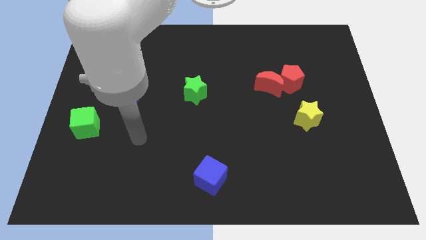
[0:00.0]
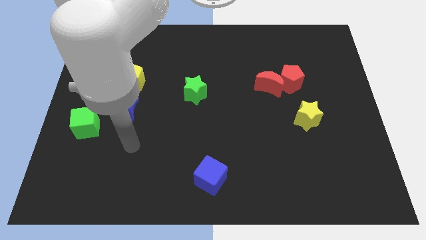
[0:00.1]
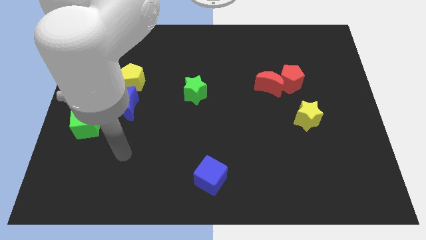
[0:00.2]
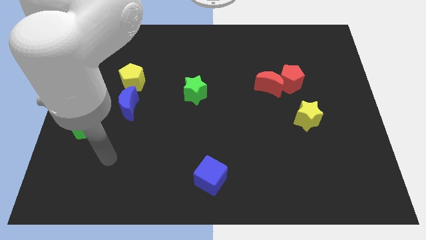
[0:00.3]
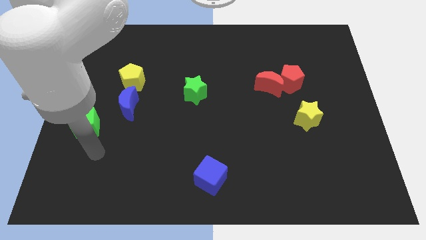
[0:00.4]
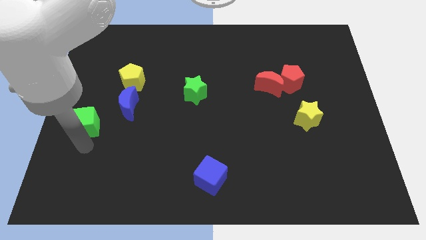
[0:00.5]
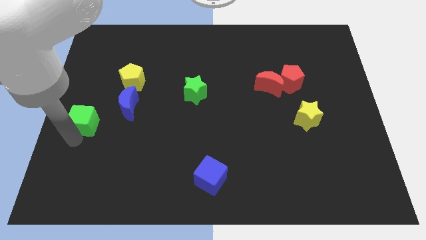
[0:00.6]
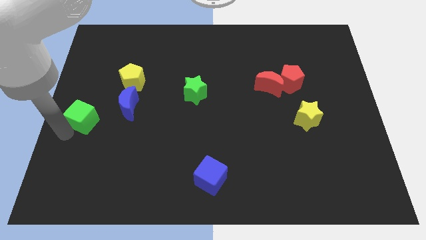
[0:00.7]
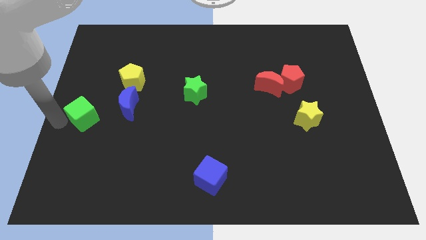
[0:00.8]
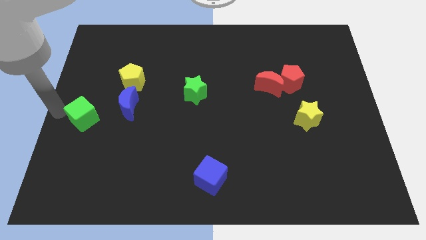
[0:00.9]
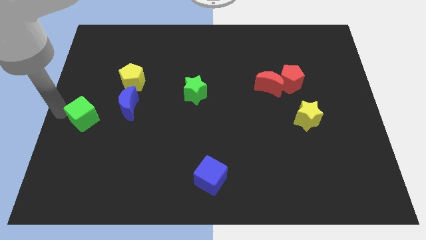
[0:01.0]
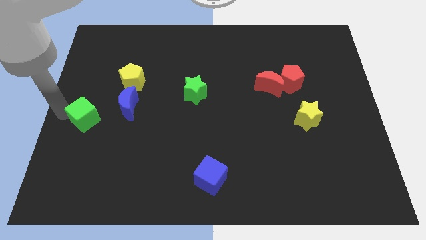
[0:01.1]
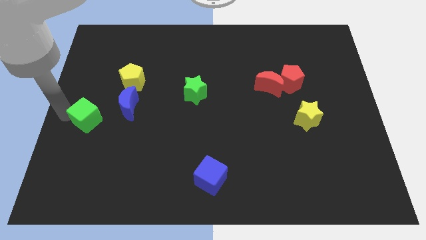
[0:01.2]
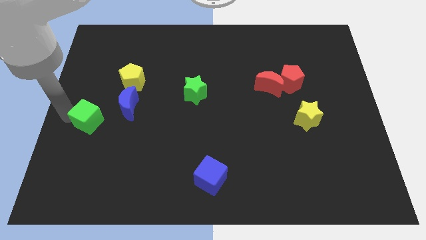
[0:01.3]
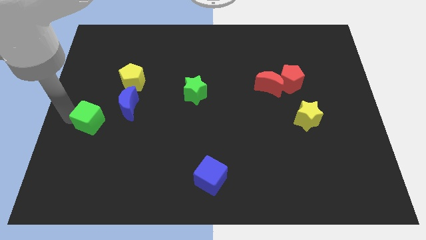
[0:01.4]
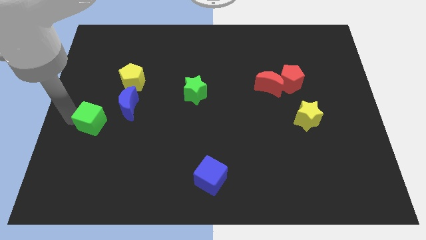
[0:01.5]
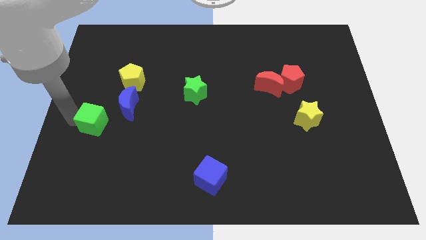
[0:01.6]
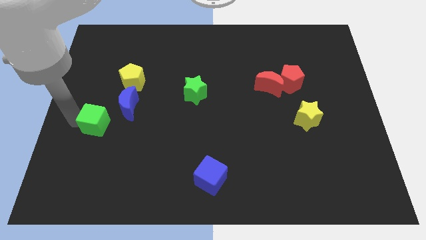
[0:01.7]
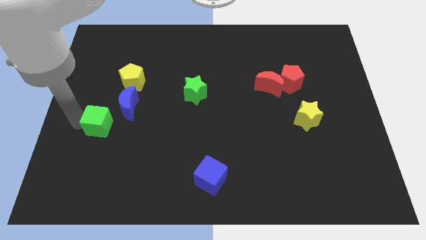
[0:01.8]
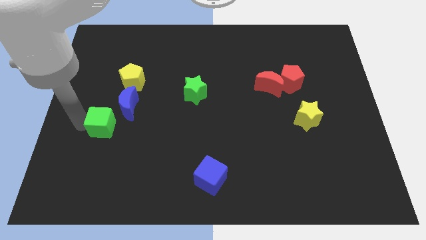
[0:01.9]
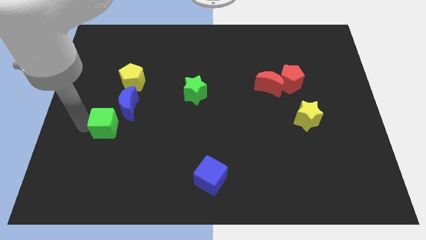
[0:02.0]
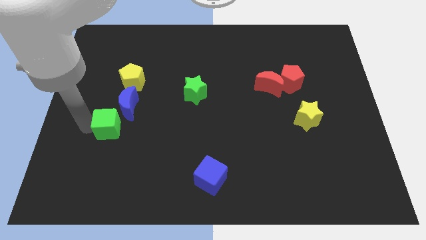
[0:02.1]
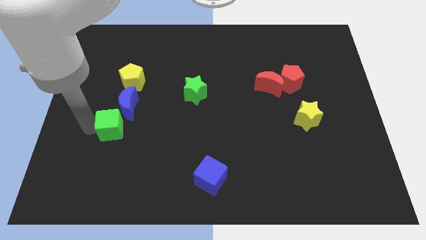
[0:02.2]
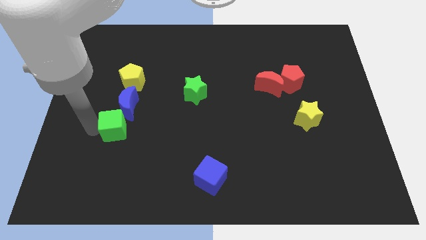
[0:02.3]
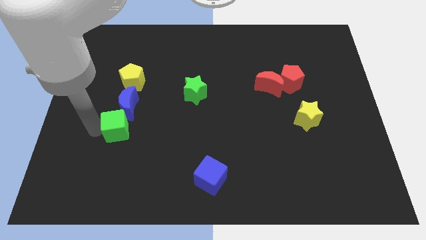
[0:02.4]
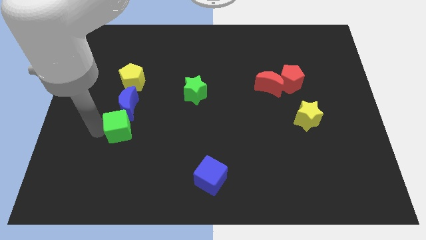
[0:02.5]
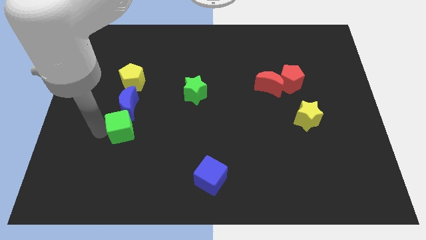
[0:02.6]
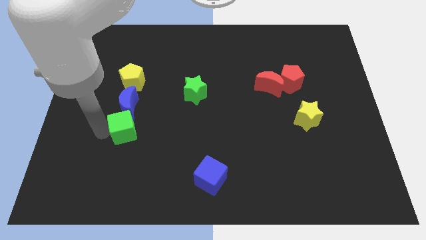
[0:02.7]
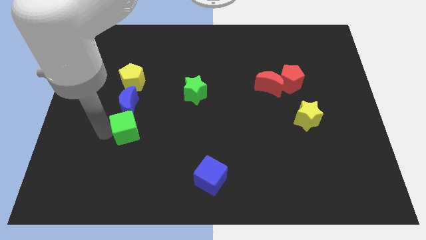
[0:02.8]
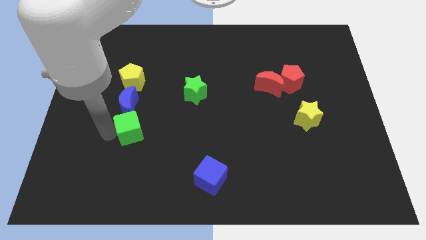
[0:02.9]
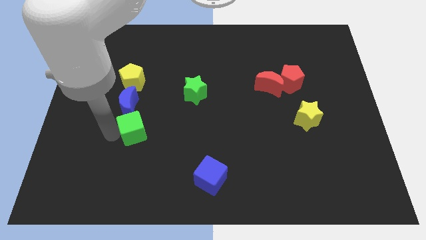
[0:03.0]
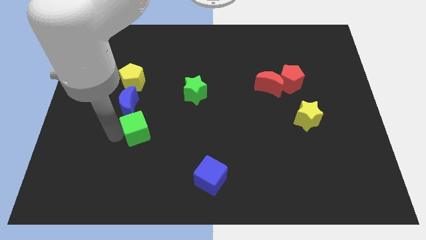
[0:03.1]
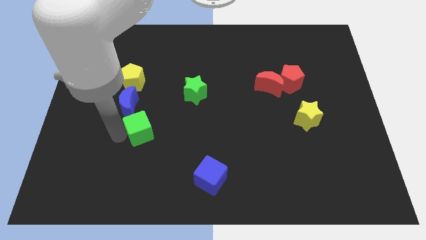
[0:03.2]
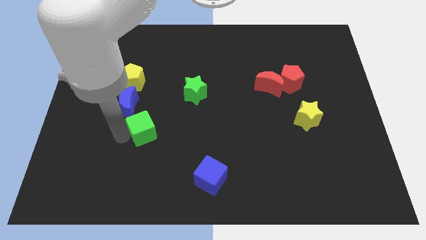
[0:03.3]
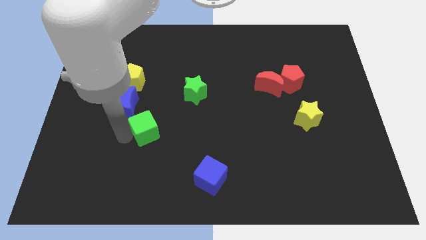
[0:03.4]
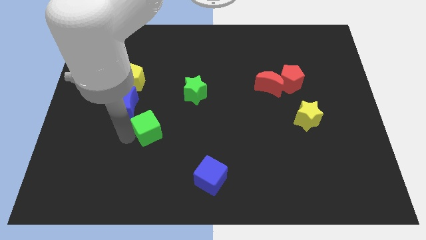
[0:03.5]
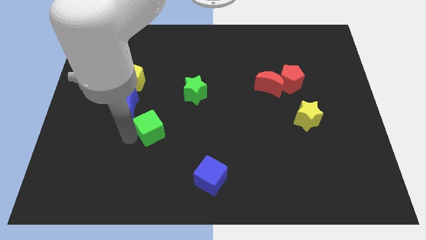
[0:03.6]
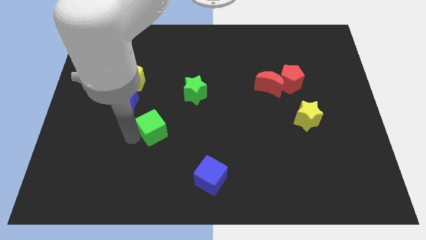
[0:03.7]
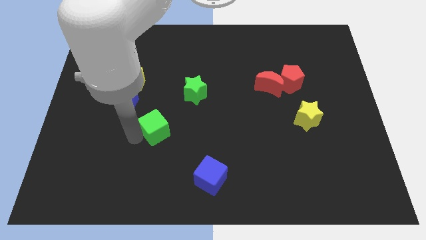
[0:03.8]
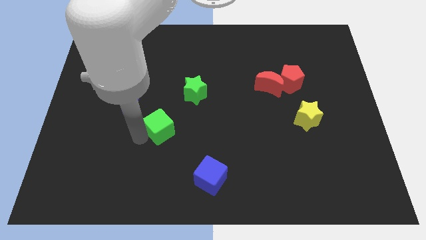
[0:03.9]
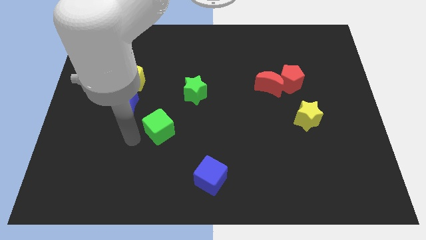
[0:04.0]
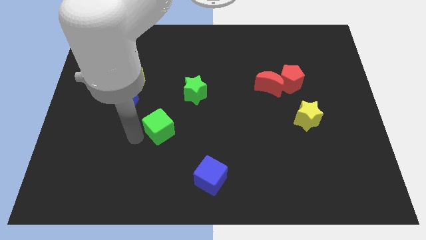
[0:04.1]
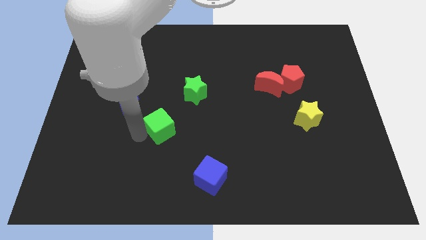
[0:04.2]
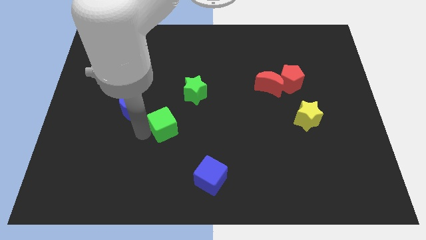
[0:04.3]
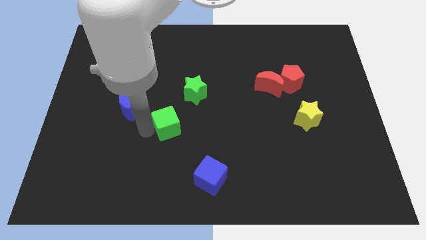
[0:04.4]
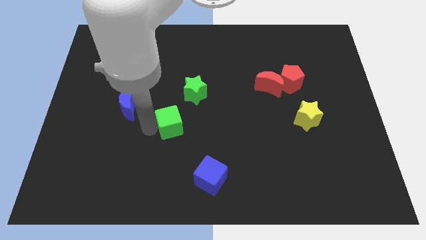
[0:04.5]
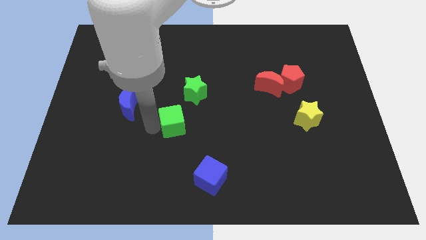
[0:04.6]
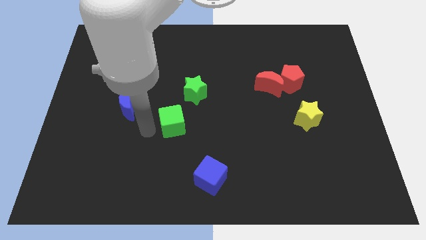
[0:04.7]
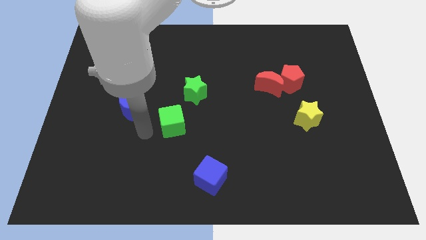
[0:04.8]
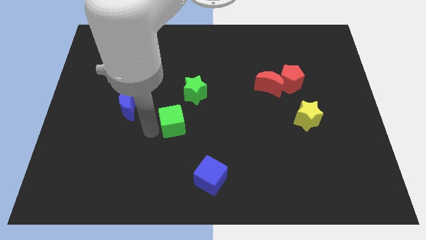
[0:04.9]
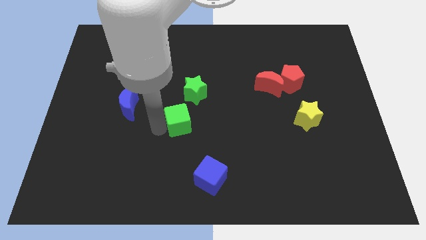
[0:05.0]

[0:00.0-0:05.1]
slide the green cube right

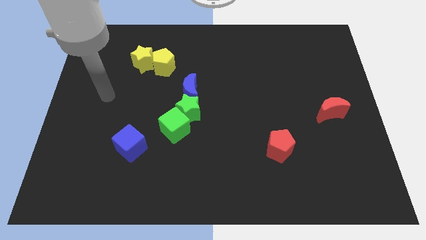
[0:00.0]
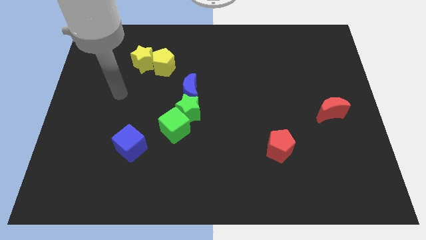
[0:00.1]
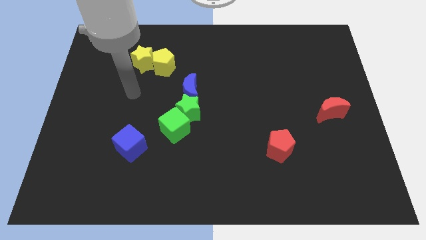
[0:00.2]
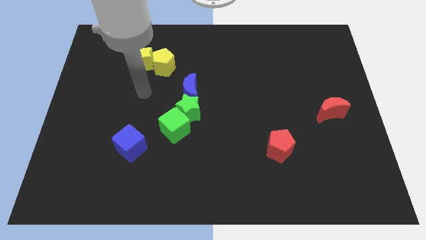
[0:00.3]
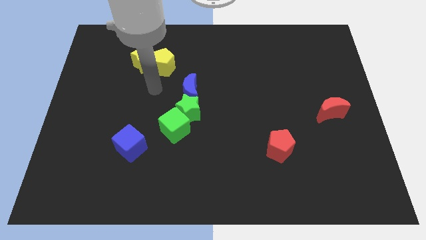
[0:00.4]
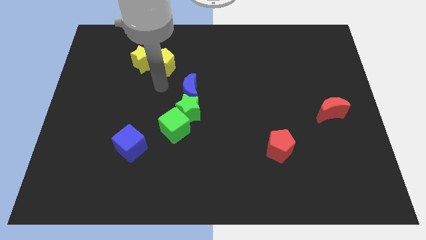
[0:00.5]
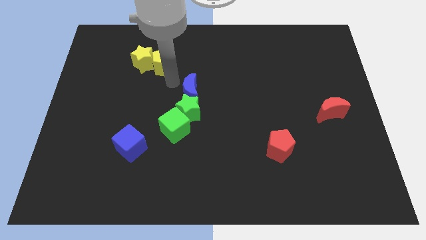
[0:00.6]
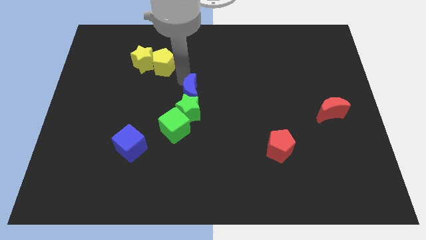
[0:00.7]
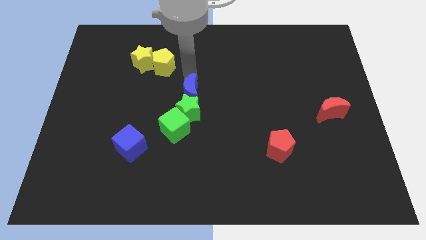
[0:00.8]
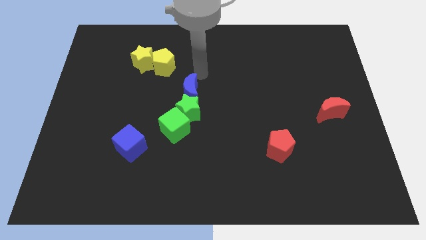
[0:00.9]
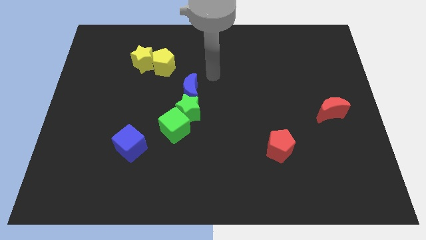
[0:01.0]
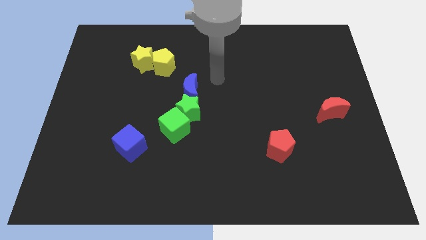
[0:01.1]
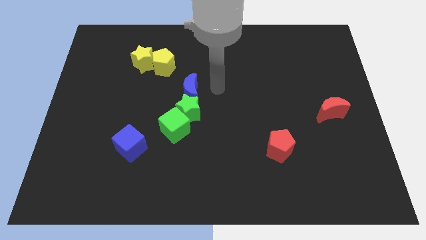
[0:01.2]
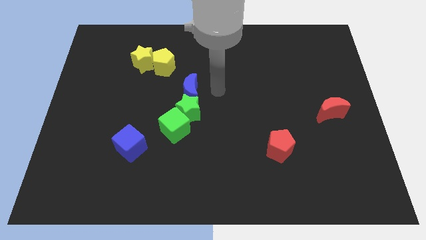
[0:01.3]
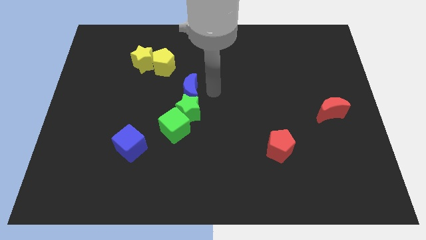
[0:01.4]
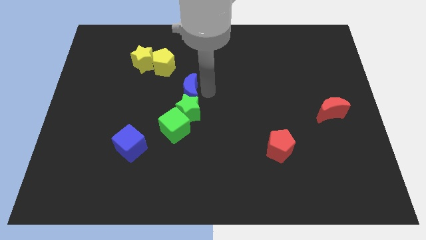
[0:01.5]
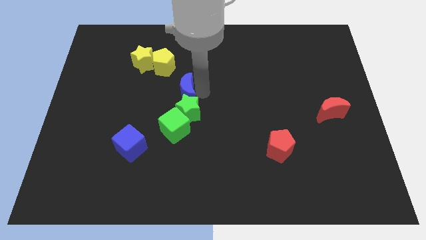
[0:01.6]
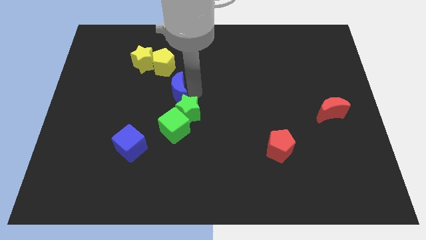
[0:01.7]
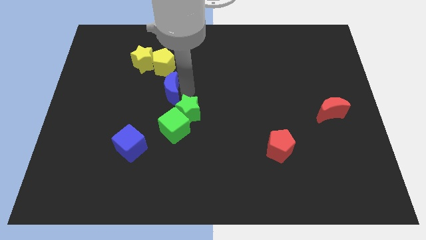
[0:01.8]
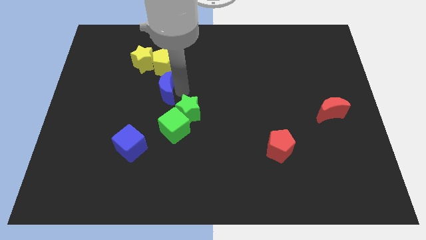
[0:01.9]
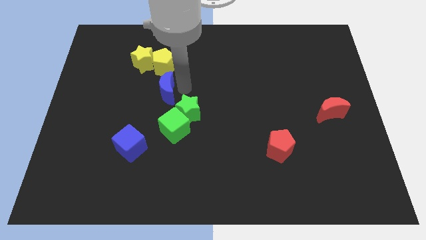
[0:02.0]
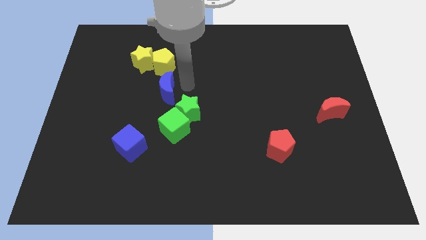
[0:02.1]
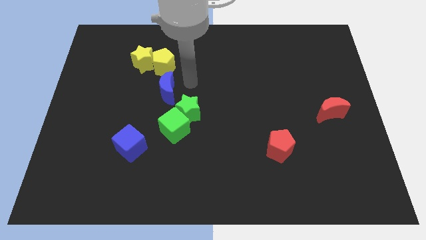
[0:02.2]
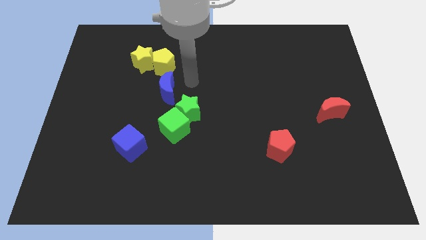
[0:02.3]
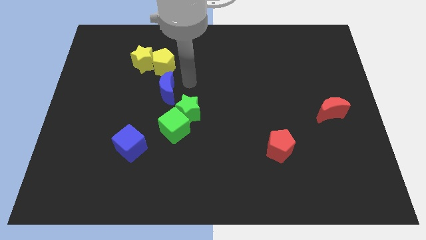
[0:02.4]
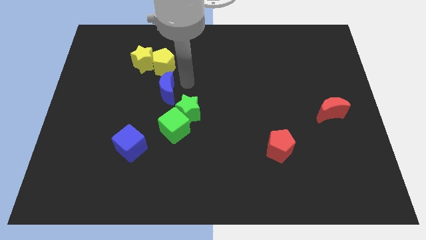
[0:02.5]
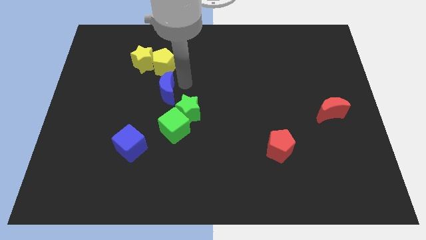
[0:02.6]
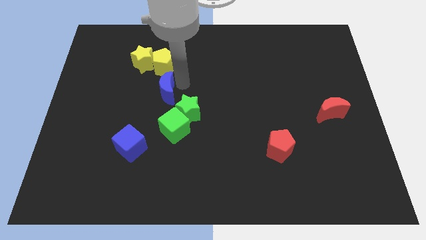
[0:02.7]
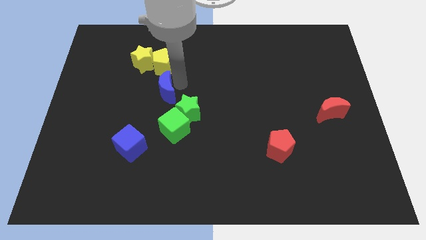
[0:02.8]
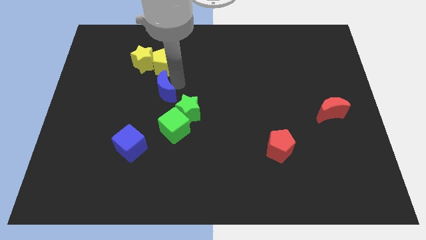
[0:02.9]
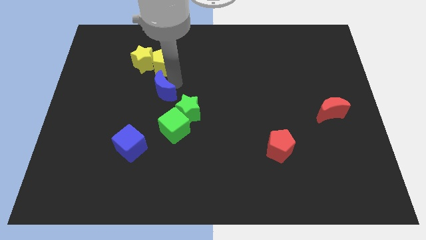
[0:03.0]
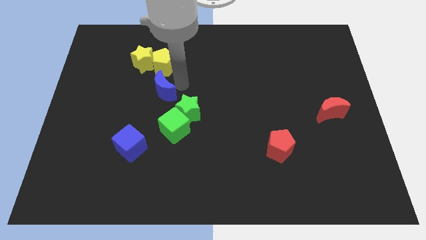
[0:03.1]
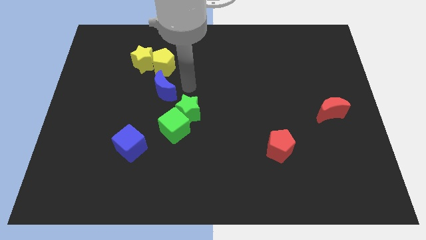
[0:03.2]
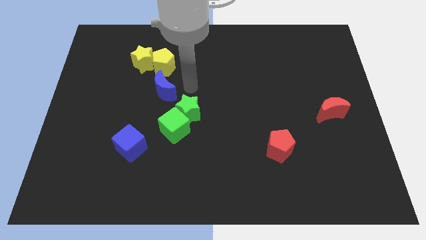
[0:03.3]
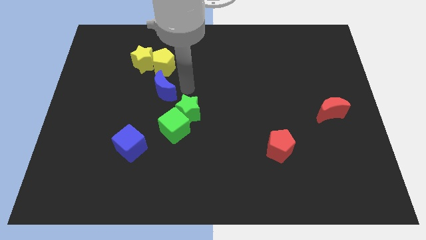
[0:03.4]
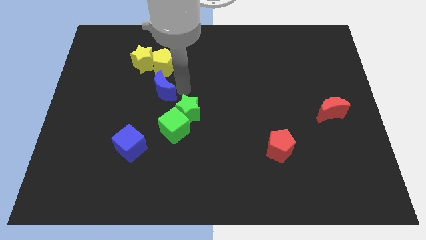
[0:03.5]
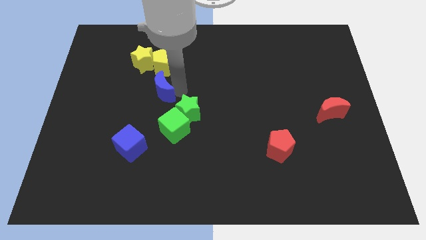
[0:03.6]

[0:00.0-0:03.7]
move the blue moon to the left a little
